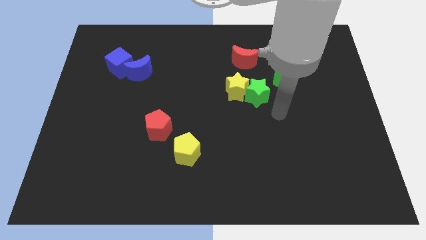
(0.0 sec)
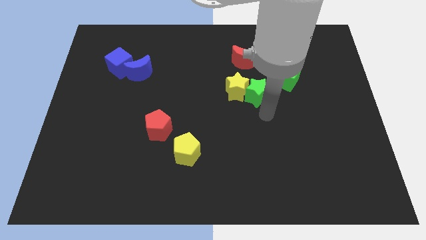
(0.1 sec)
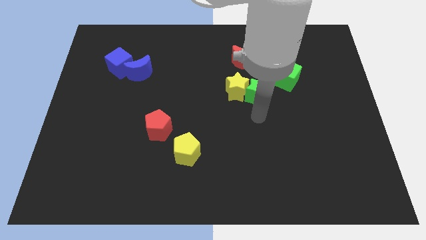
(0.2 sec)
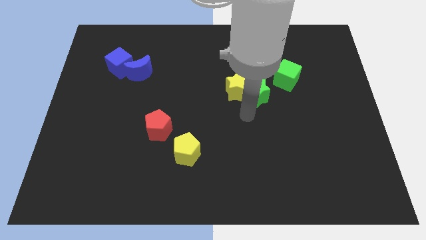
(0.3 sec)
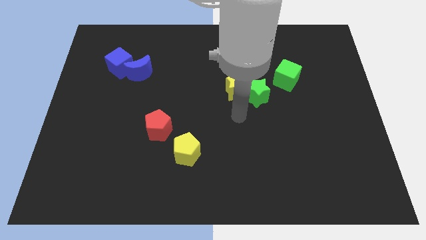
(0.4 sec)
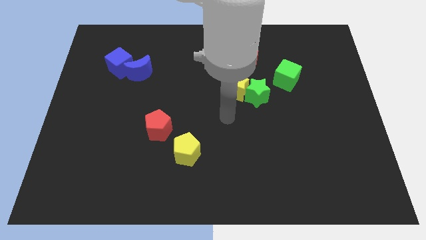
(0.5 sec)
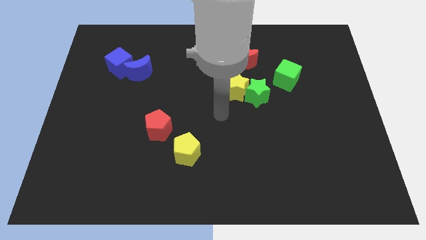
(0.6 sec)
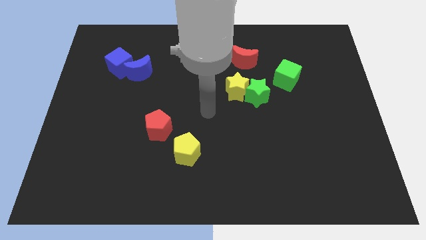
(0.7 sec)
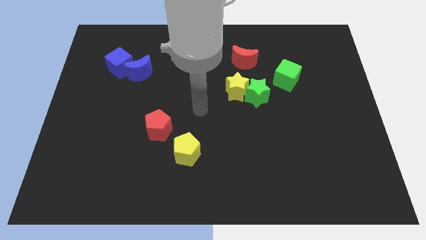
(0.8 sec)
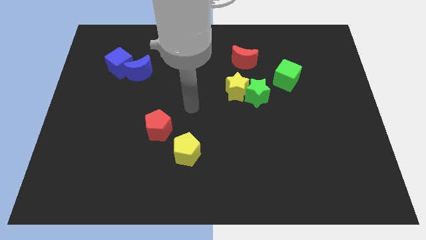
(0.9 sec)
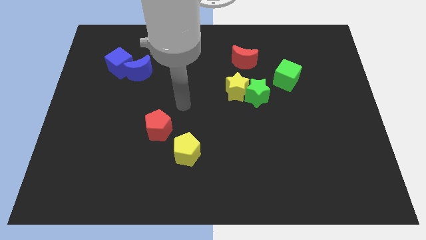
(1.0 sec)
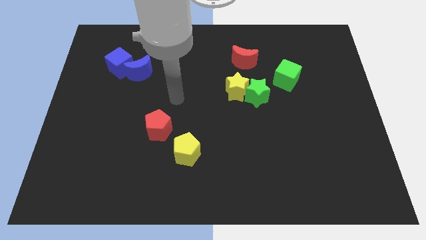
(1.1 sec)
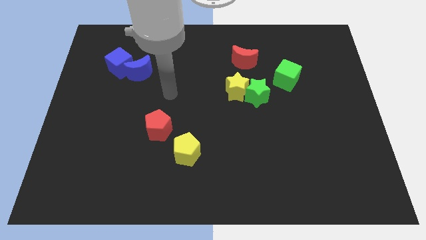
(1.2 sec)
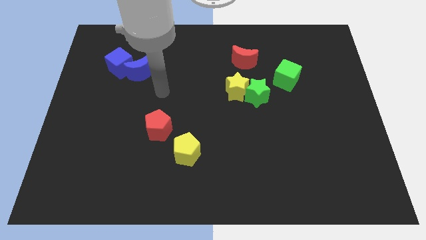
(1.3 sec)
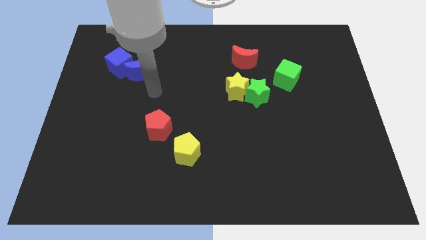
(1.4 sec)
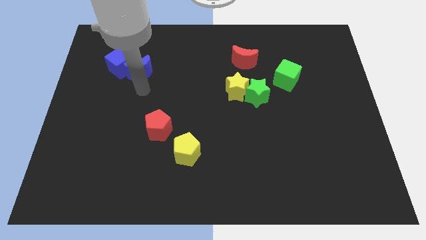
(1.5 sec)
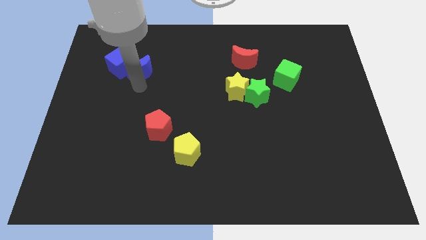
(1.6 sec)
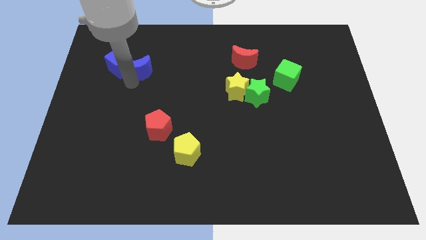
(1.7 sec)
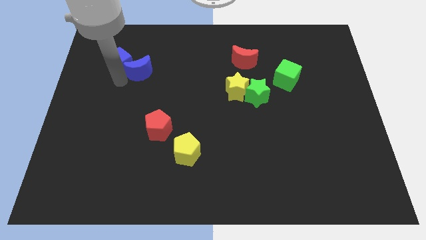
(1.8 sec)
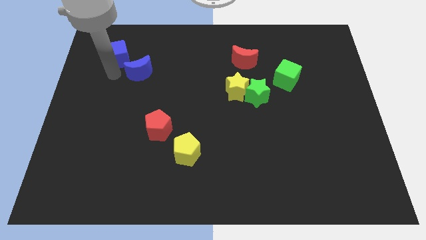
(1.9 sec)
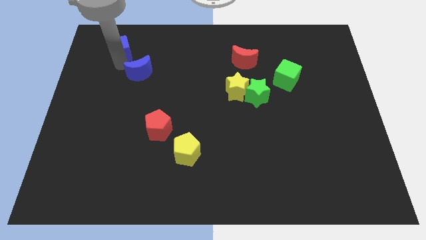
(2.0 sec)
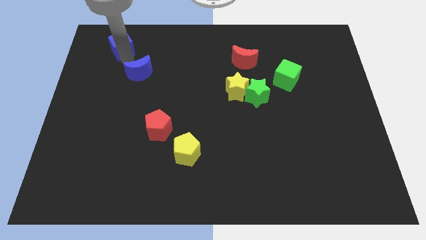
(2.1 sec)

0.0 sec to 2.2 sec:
move the blue moon away from the blue cube

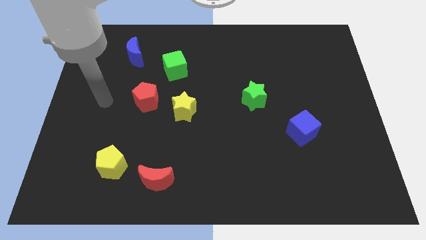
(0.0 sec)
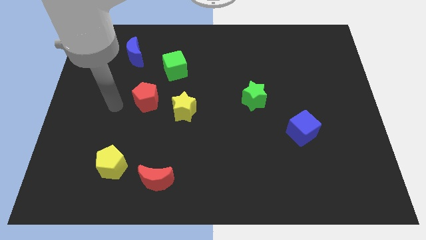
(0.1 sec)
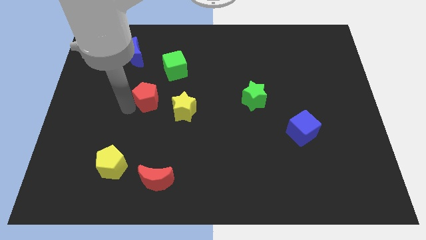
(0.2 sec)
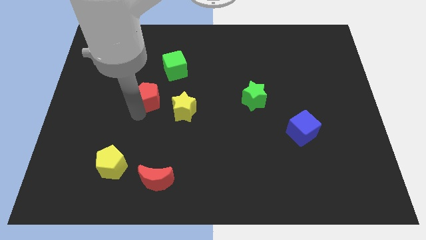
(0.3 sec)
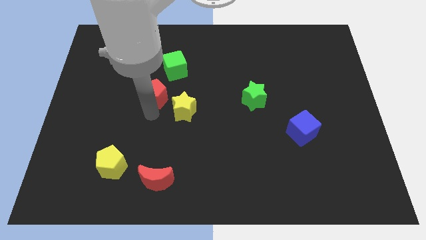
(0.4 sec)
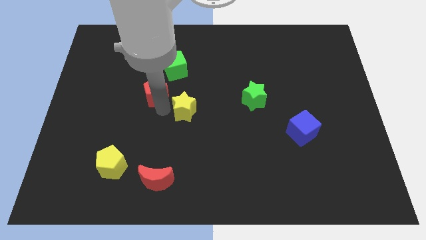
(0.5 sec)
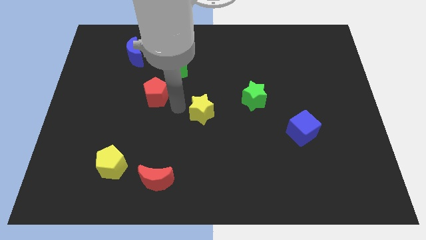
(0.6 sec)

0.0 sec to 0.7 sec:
pull the red pentagon apart from the yellow star

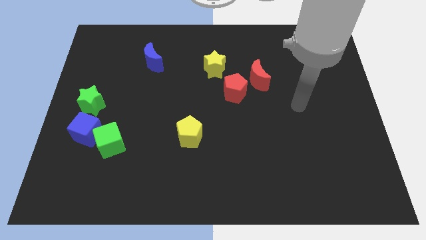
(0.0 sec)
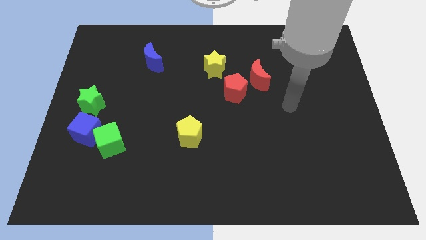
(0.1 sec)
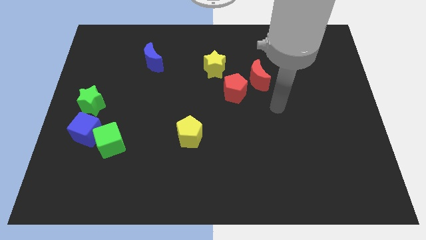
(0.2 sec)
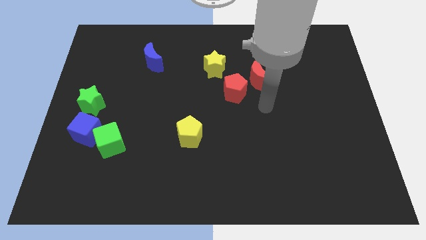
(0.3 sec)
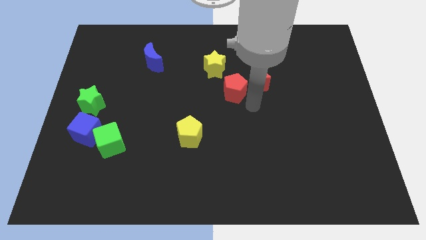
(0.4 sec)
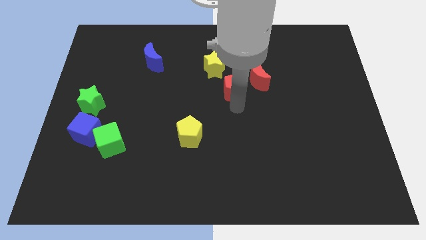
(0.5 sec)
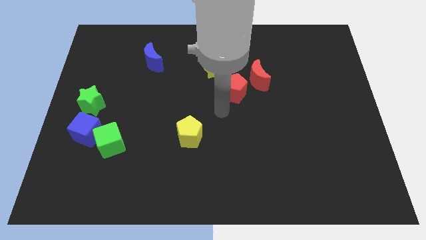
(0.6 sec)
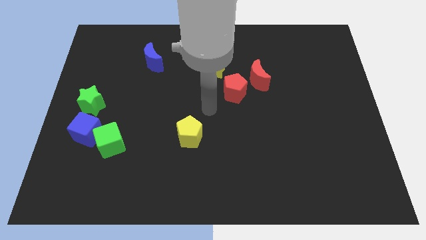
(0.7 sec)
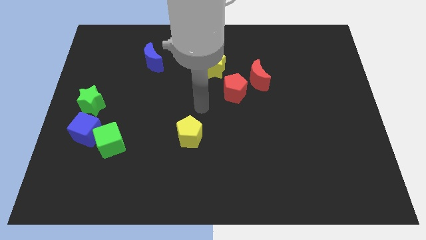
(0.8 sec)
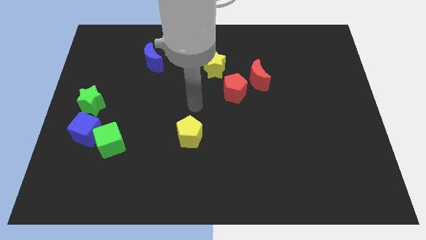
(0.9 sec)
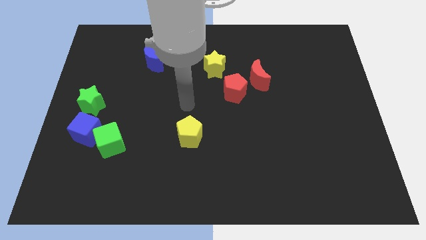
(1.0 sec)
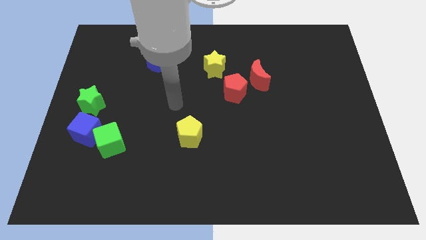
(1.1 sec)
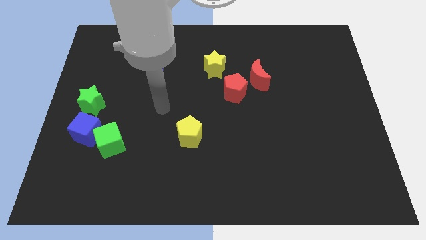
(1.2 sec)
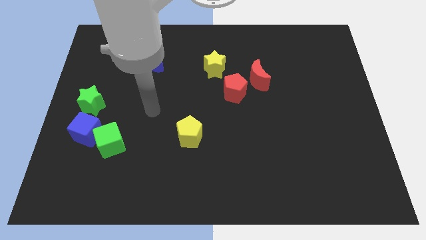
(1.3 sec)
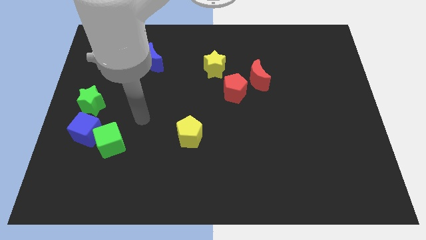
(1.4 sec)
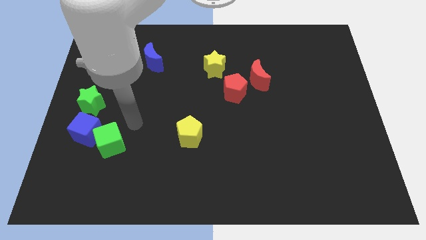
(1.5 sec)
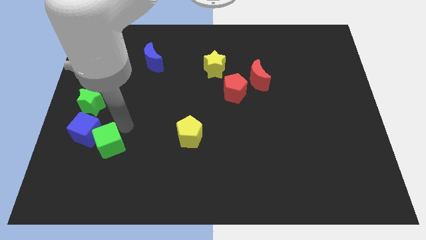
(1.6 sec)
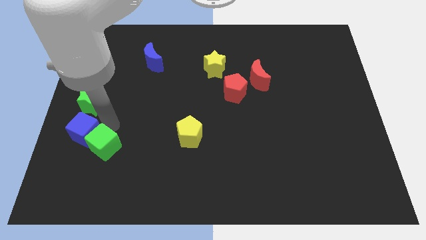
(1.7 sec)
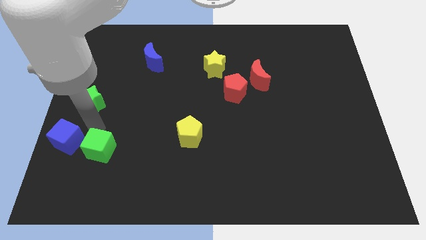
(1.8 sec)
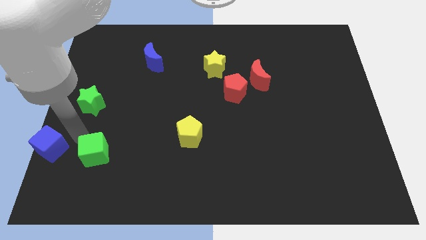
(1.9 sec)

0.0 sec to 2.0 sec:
move the green cube away from the blue cube

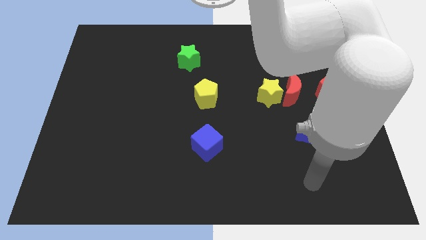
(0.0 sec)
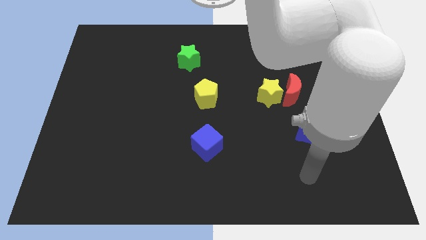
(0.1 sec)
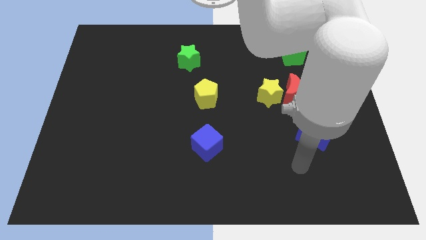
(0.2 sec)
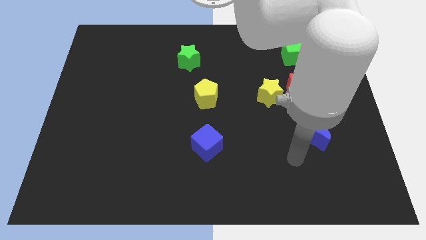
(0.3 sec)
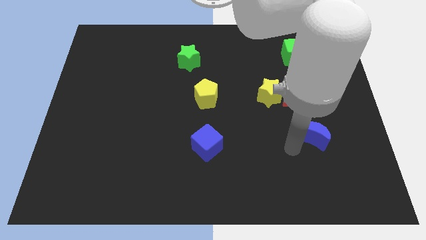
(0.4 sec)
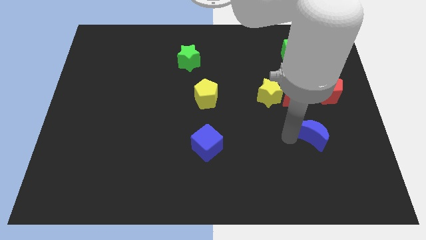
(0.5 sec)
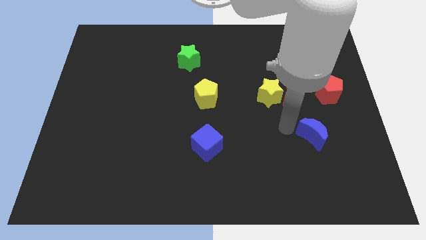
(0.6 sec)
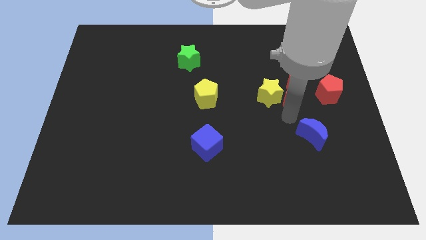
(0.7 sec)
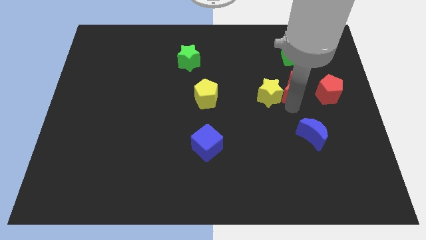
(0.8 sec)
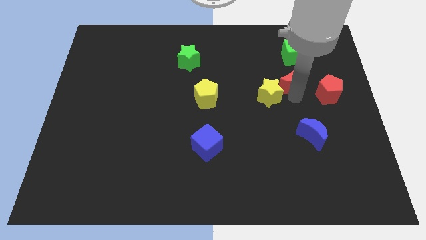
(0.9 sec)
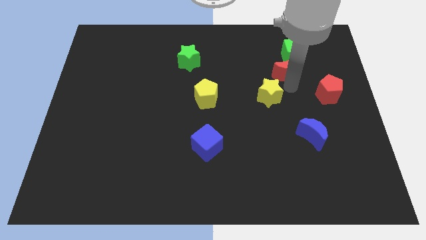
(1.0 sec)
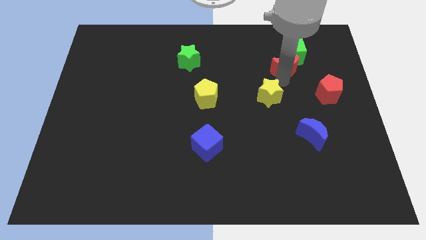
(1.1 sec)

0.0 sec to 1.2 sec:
separate the yellow star from the red moon

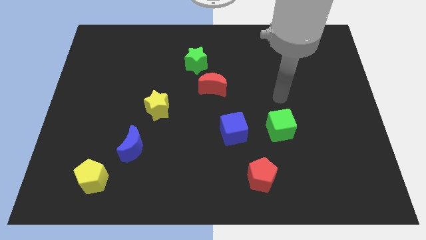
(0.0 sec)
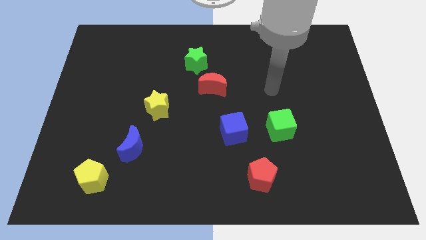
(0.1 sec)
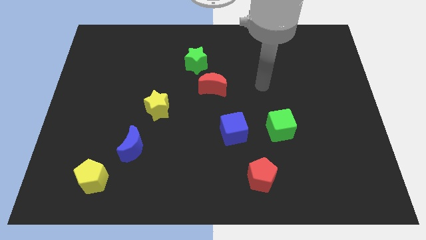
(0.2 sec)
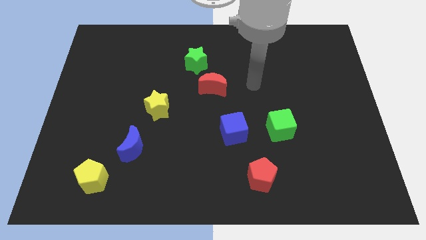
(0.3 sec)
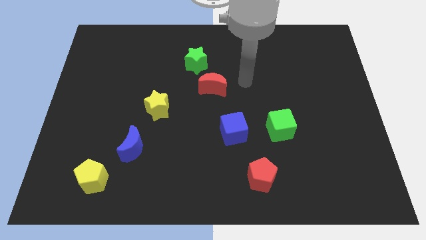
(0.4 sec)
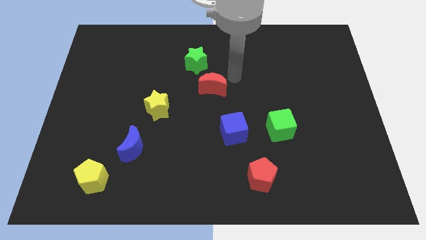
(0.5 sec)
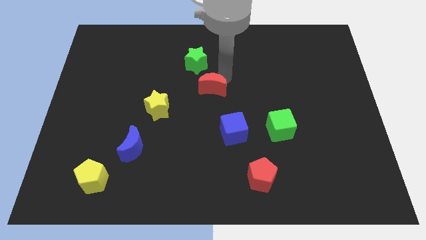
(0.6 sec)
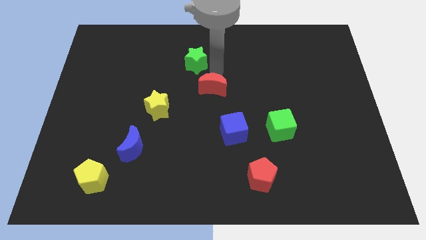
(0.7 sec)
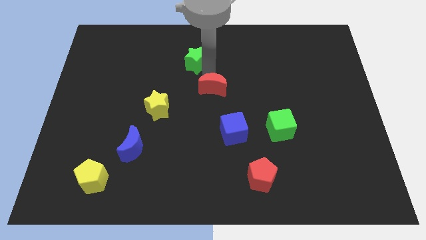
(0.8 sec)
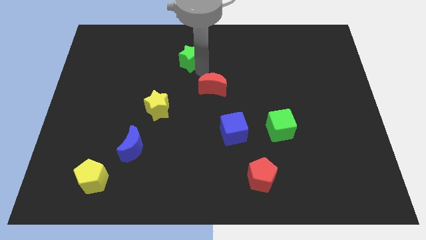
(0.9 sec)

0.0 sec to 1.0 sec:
pull the red moon apart from the green star

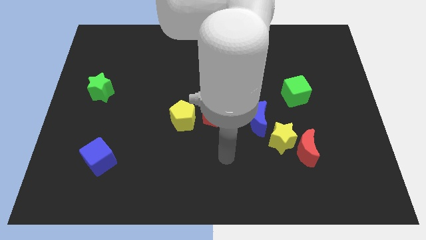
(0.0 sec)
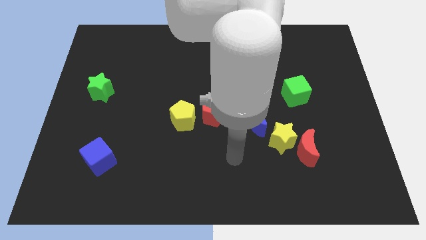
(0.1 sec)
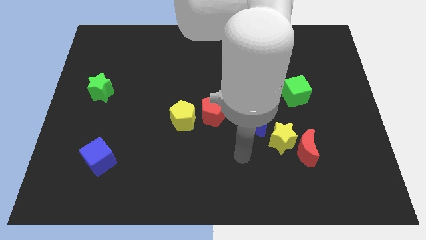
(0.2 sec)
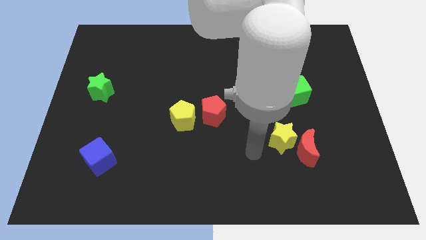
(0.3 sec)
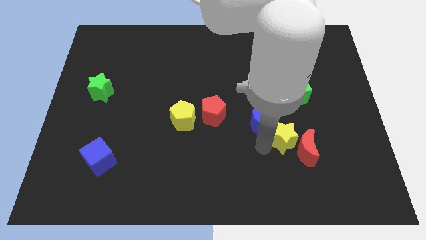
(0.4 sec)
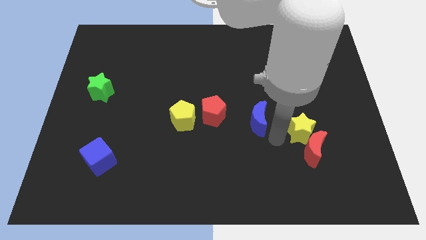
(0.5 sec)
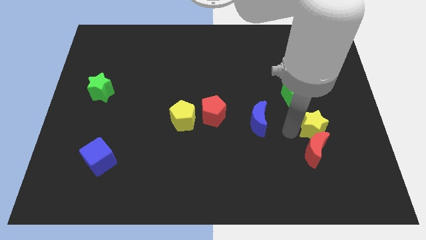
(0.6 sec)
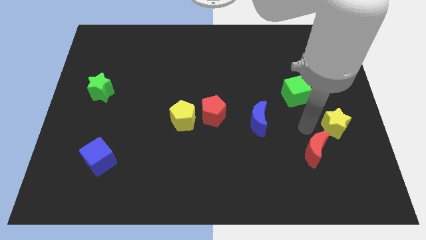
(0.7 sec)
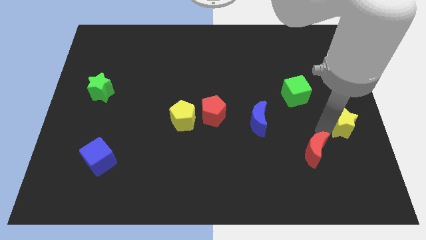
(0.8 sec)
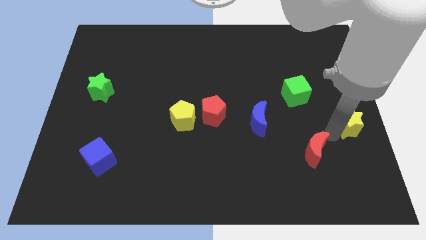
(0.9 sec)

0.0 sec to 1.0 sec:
pull the red moon apart from the yellow star

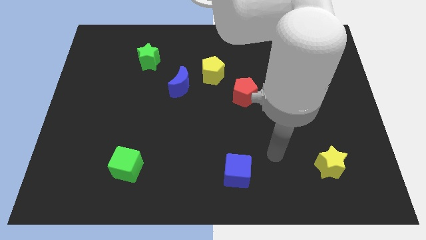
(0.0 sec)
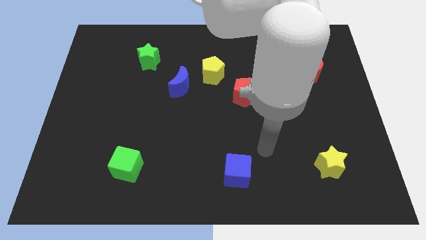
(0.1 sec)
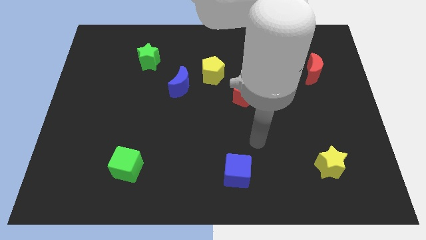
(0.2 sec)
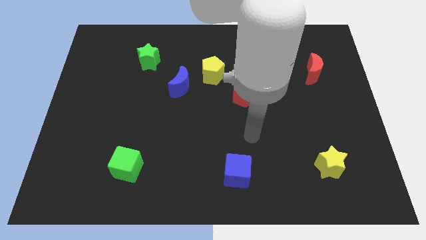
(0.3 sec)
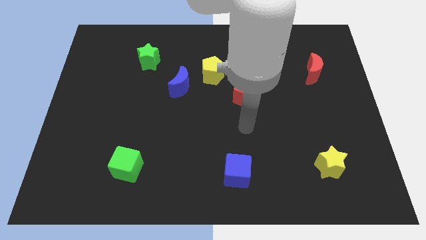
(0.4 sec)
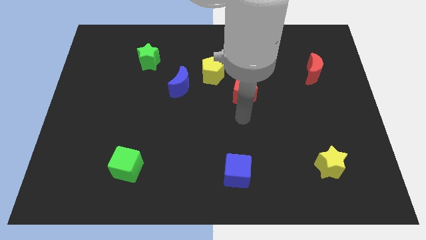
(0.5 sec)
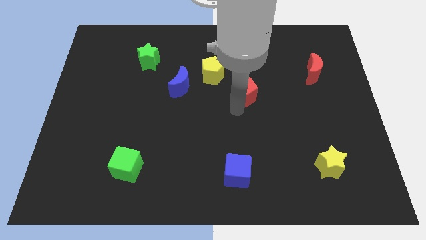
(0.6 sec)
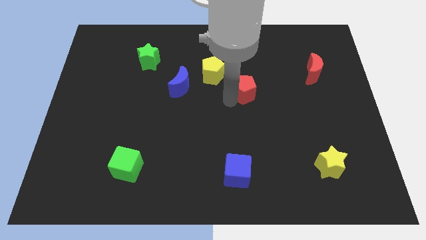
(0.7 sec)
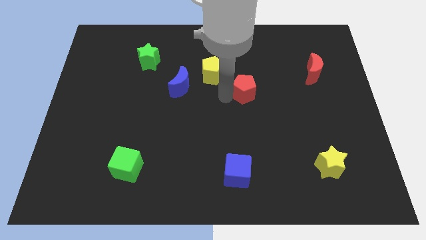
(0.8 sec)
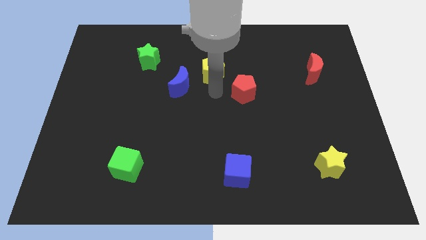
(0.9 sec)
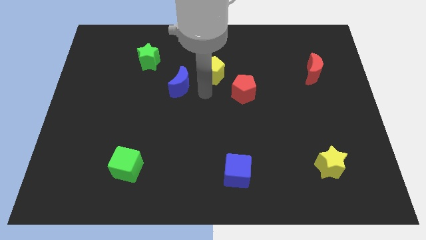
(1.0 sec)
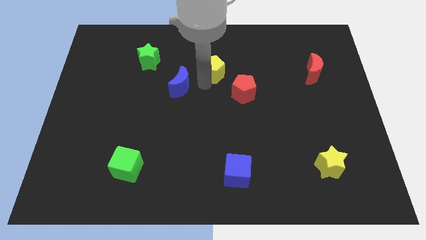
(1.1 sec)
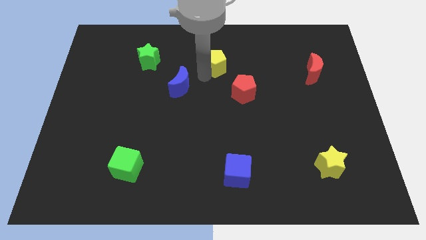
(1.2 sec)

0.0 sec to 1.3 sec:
pull the blue moon apart from the yellow pentagon
